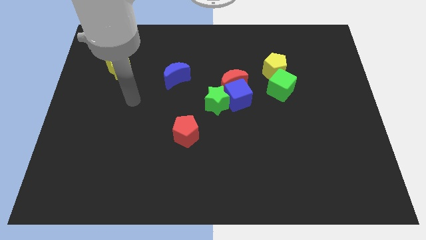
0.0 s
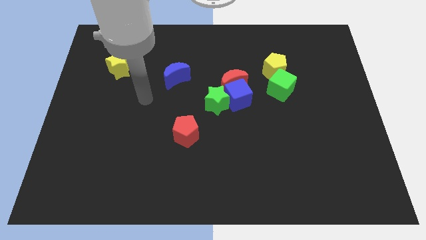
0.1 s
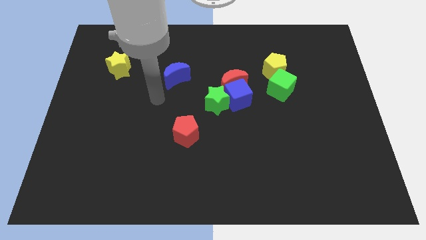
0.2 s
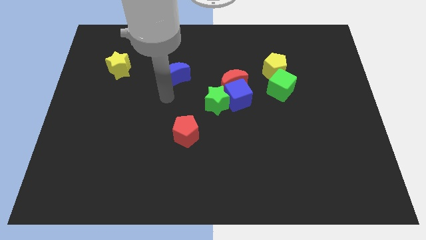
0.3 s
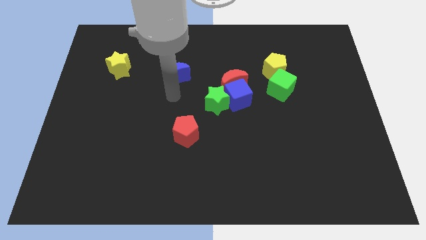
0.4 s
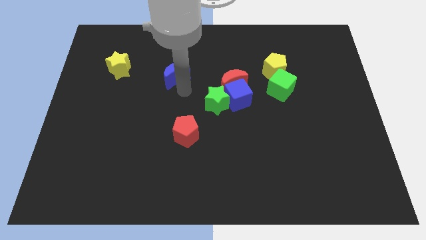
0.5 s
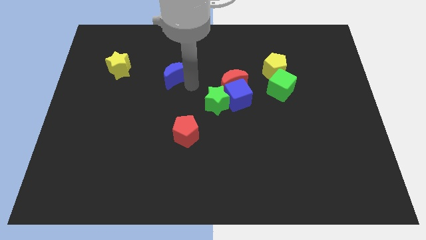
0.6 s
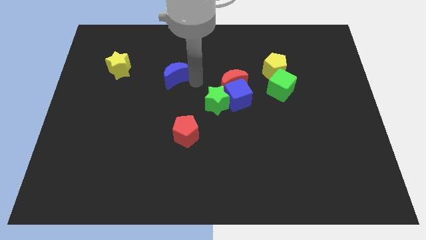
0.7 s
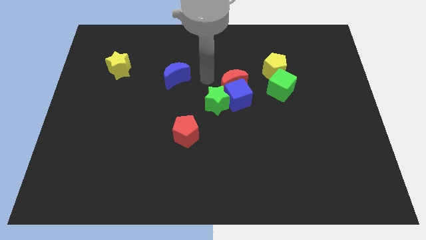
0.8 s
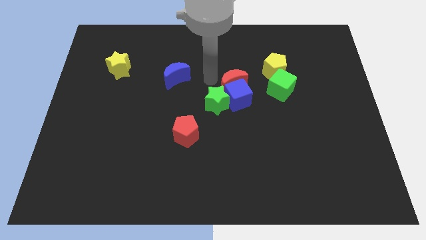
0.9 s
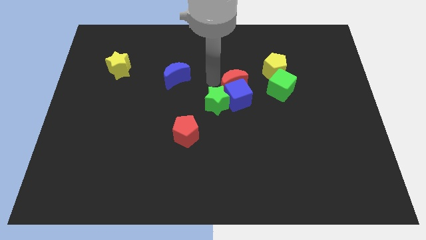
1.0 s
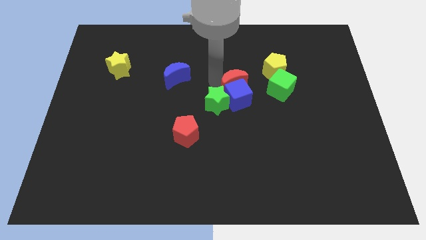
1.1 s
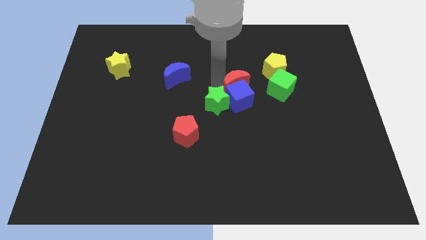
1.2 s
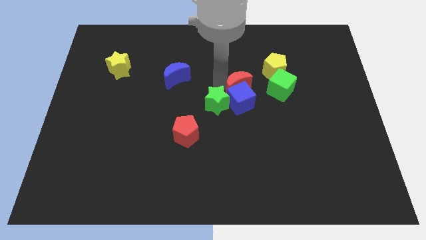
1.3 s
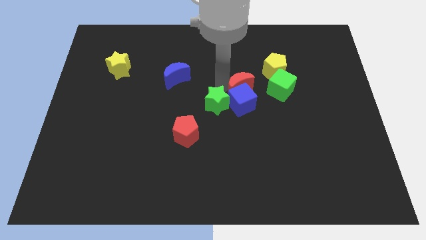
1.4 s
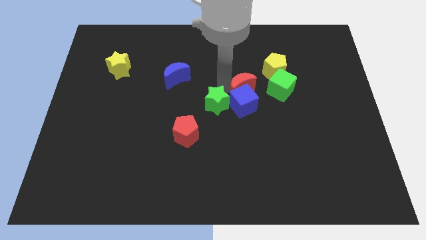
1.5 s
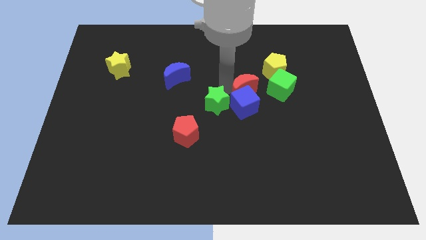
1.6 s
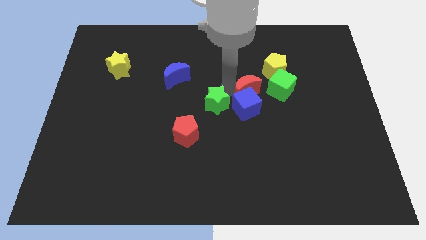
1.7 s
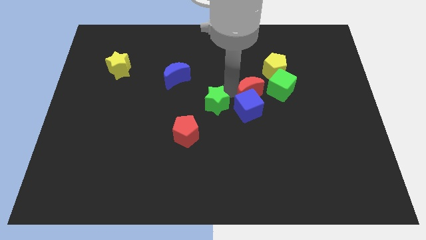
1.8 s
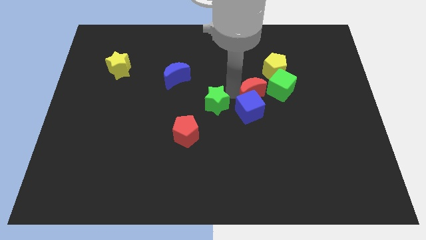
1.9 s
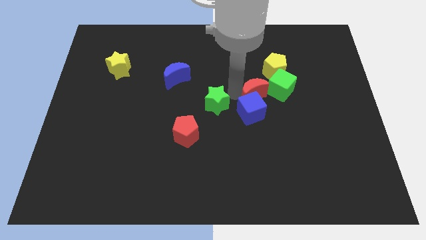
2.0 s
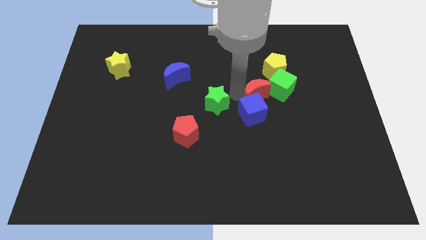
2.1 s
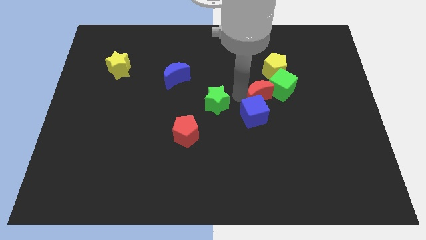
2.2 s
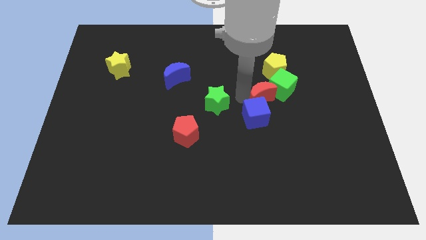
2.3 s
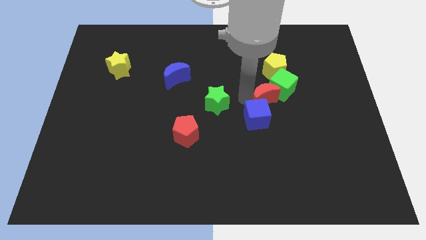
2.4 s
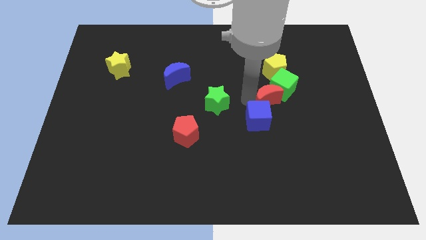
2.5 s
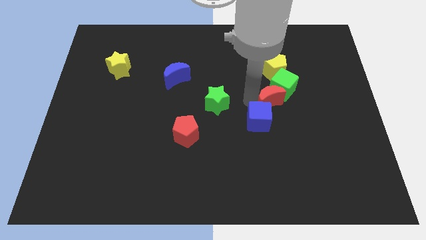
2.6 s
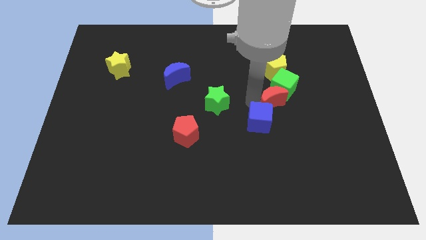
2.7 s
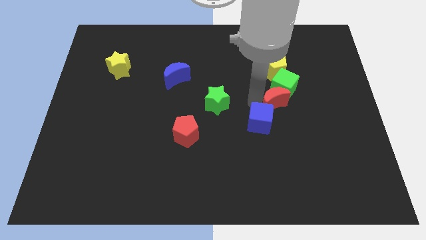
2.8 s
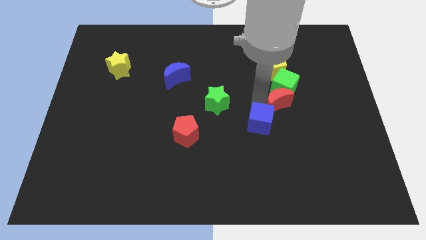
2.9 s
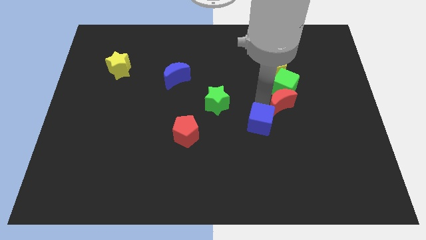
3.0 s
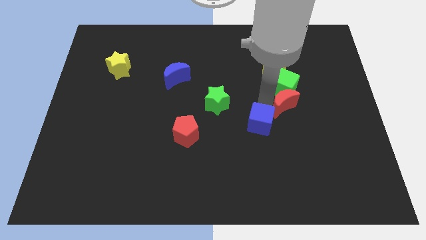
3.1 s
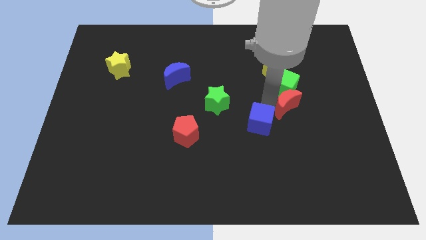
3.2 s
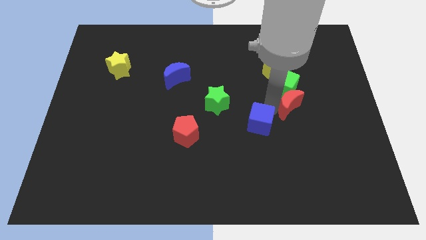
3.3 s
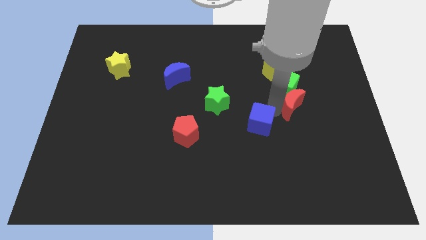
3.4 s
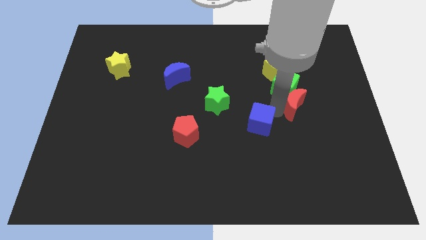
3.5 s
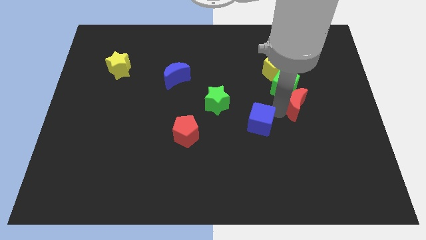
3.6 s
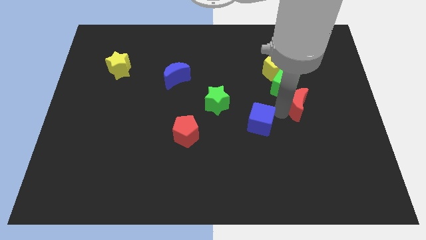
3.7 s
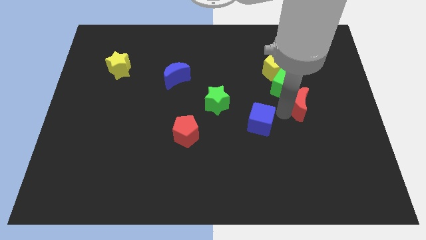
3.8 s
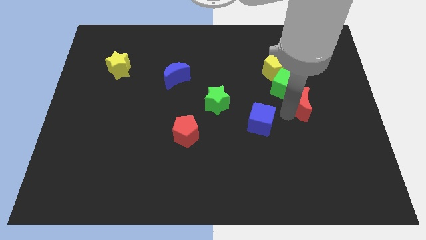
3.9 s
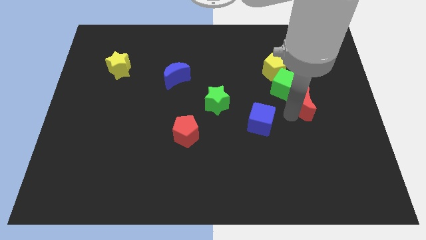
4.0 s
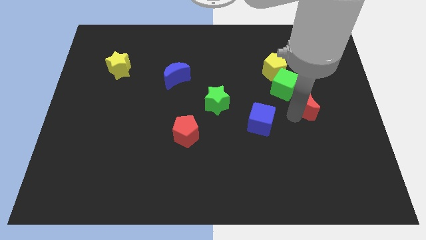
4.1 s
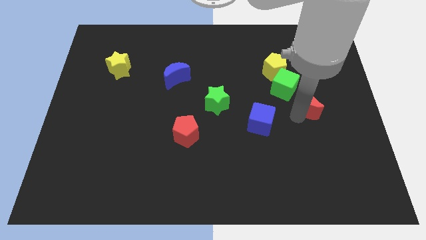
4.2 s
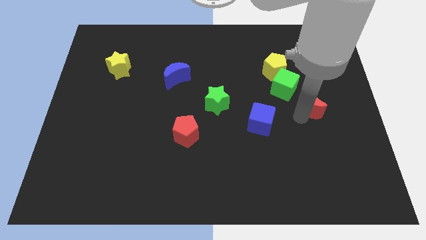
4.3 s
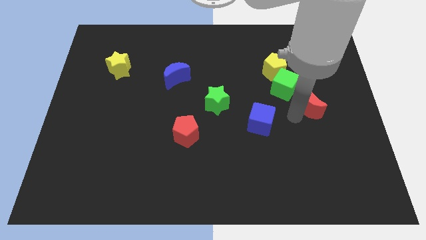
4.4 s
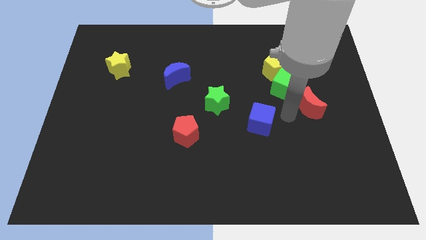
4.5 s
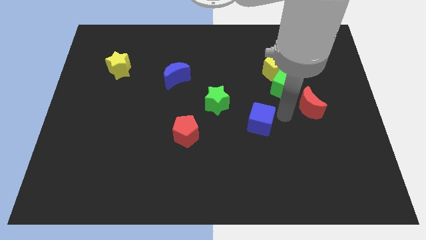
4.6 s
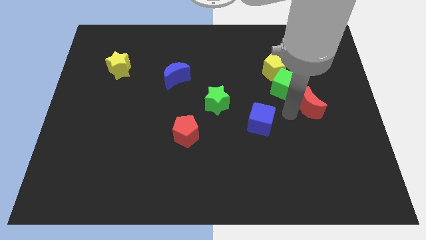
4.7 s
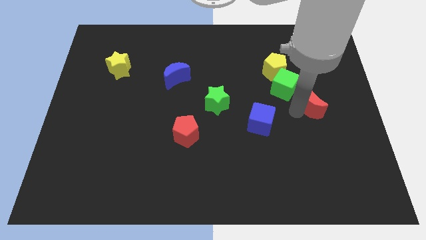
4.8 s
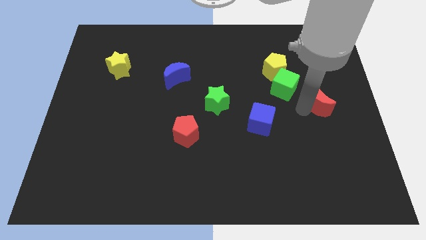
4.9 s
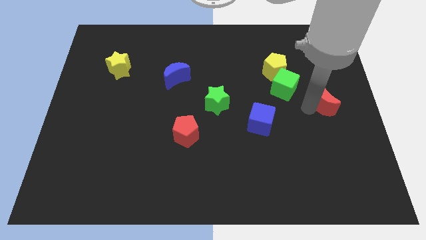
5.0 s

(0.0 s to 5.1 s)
put the red moon to the right side
